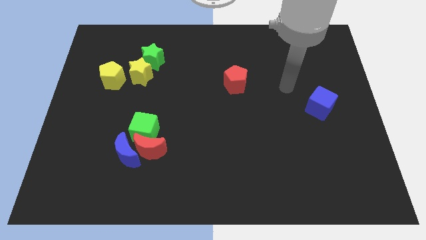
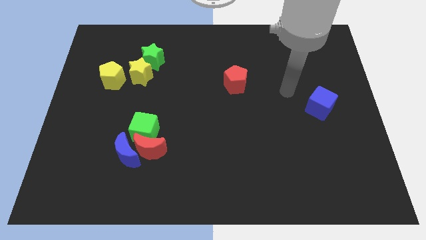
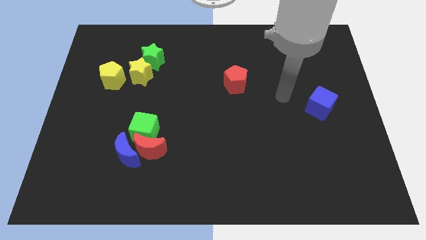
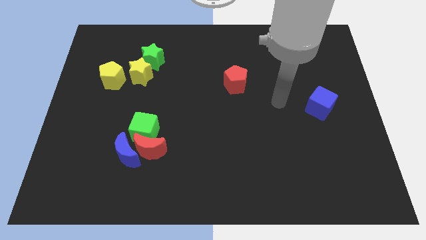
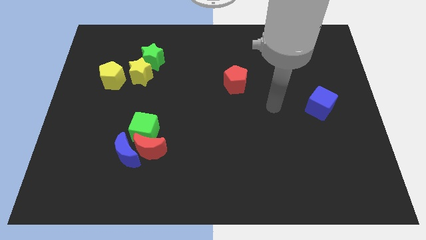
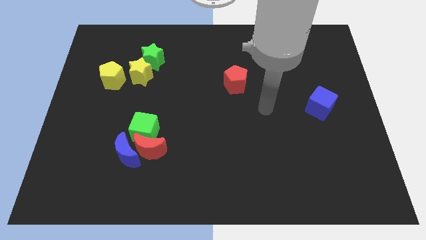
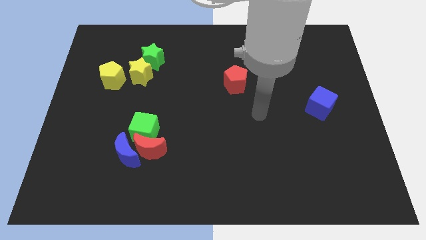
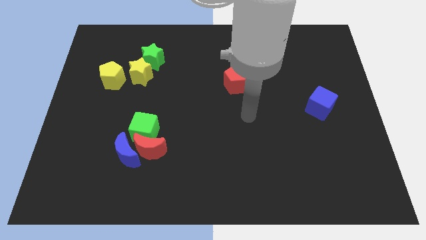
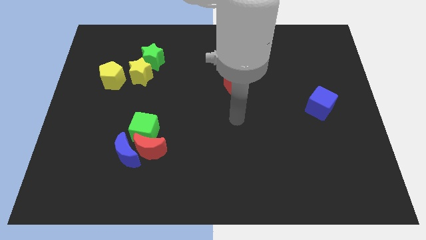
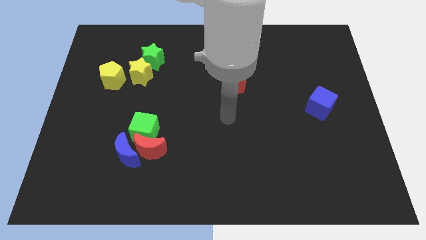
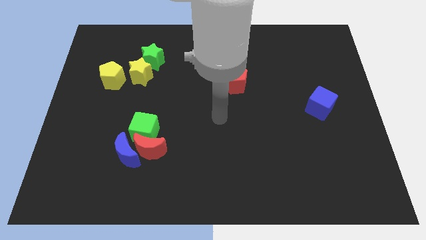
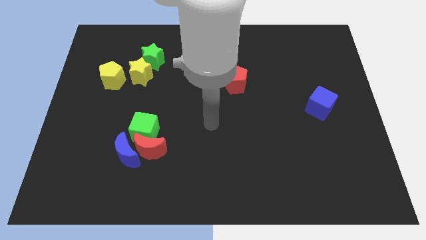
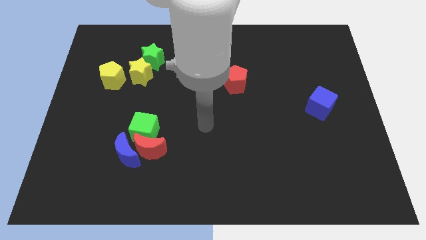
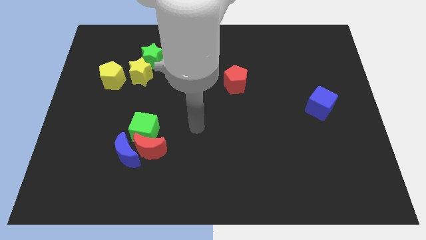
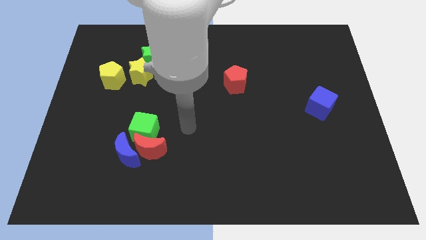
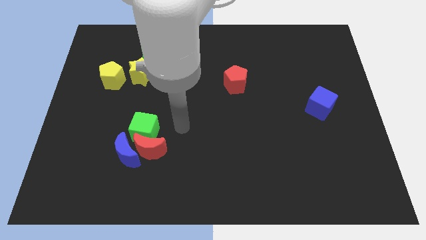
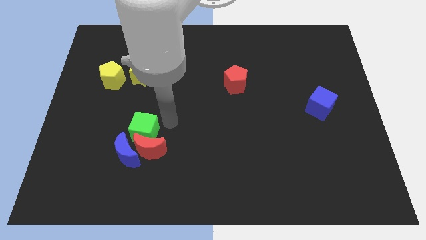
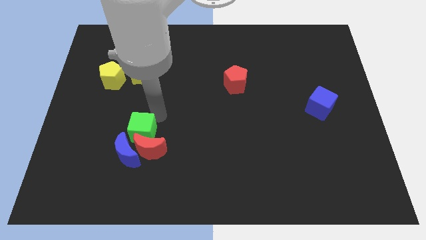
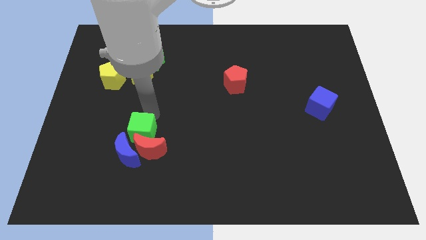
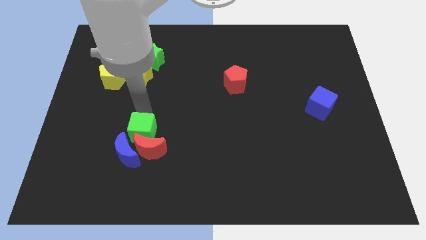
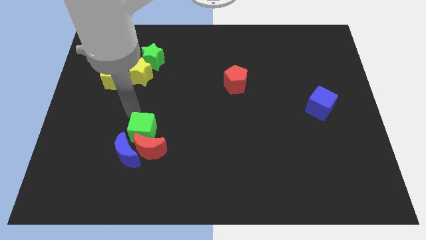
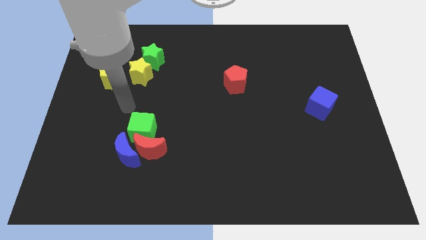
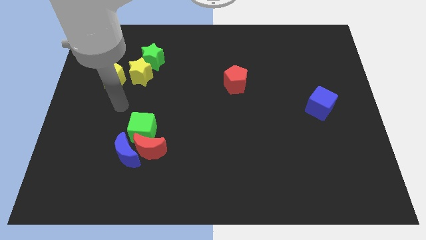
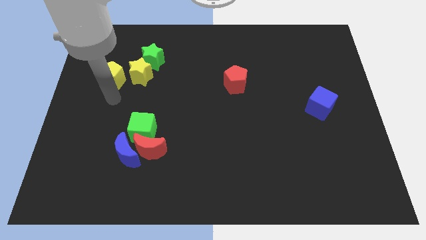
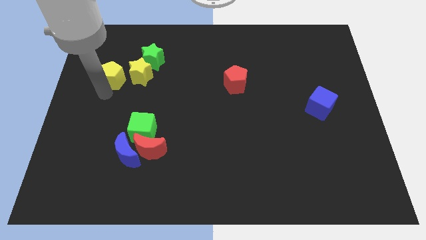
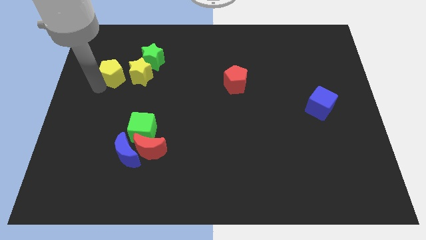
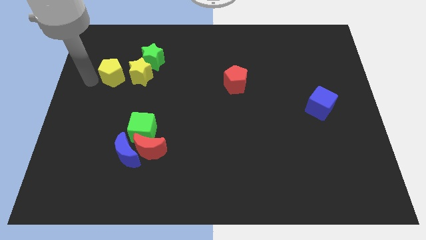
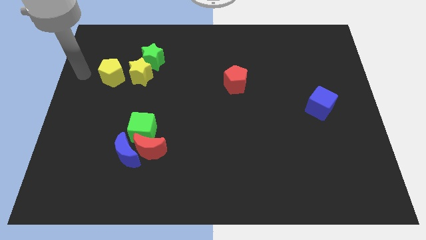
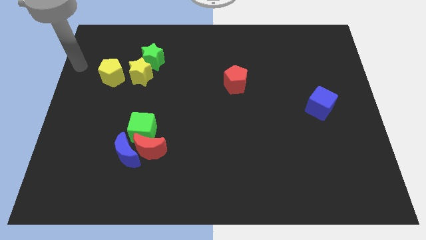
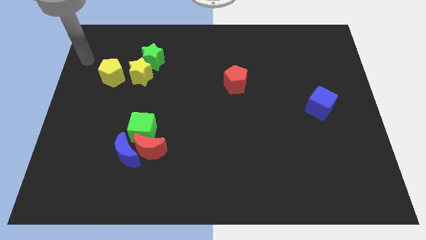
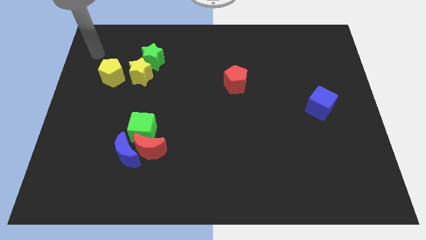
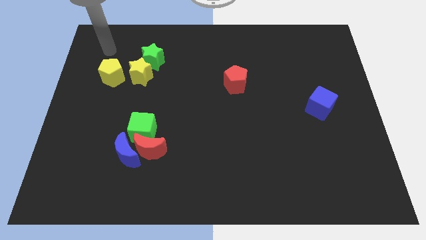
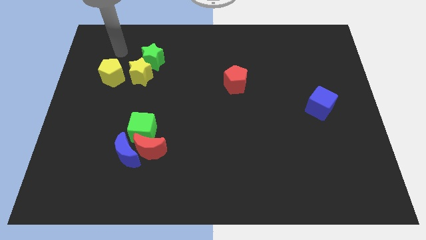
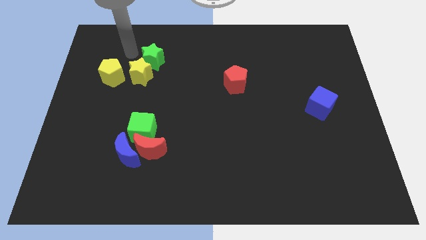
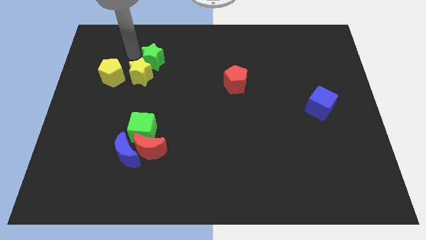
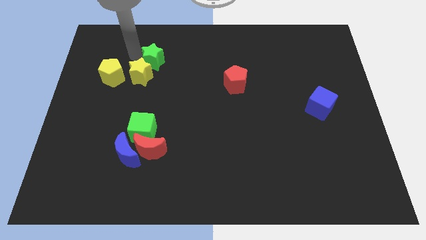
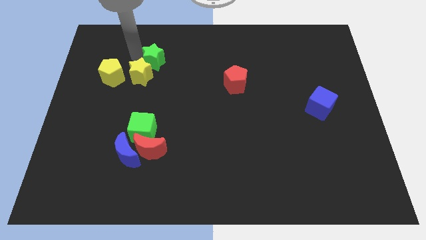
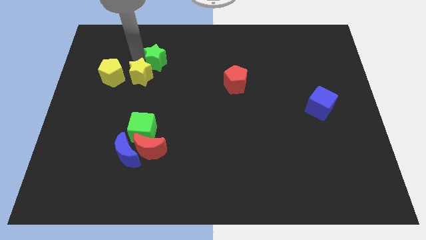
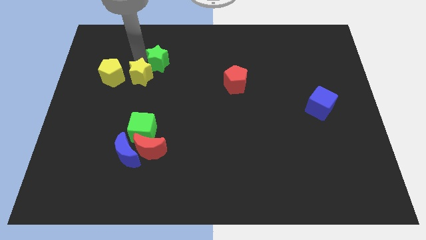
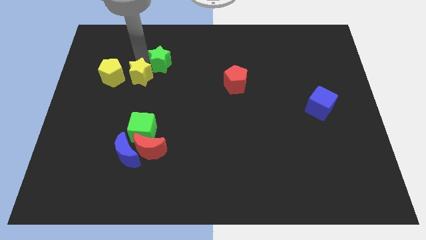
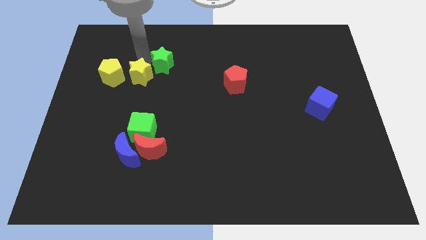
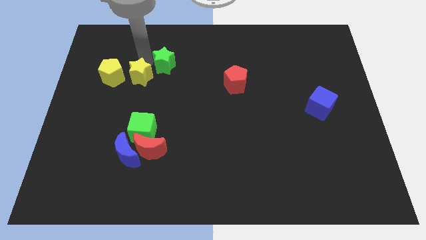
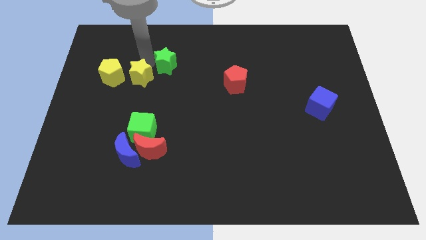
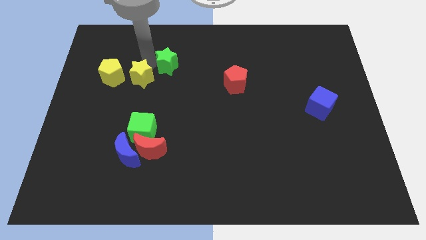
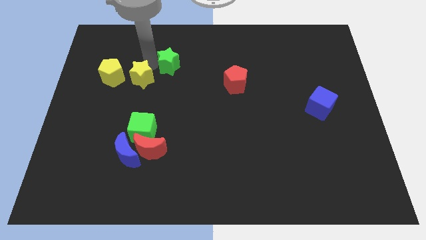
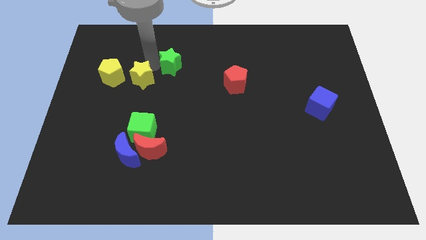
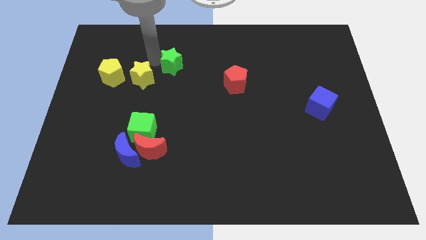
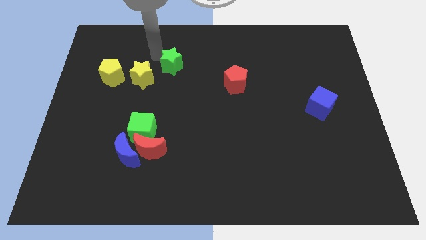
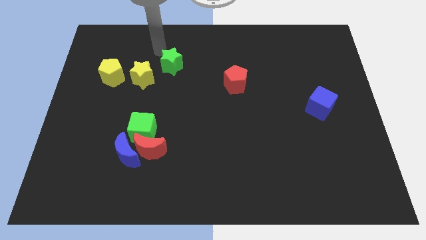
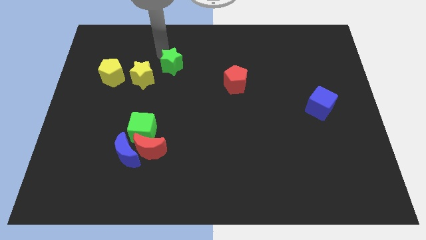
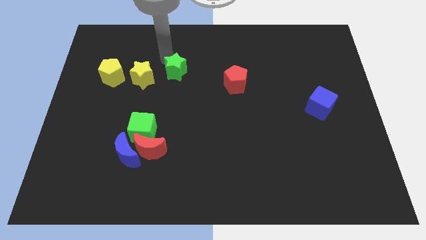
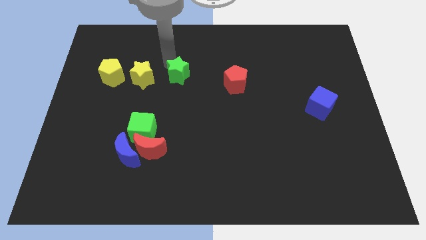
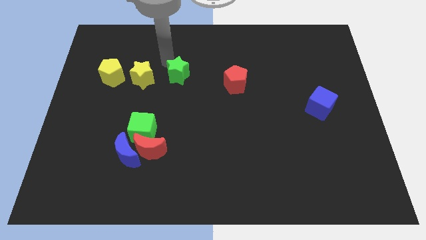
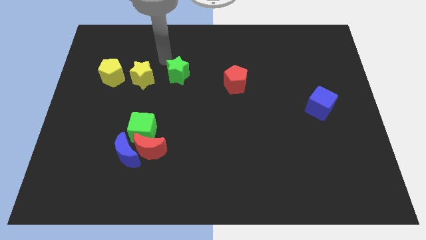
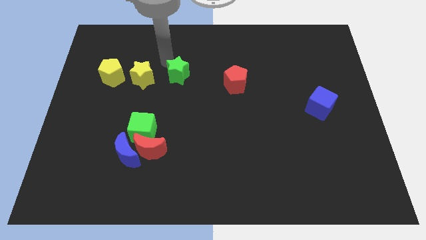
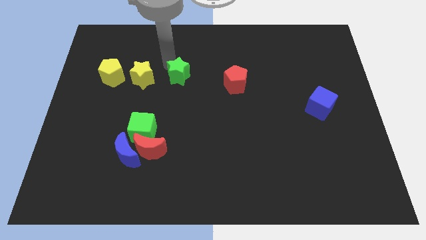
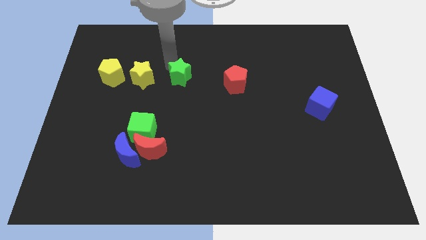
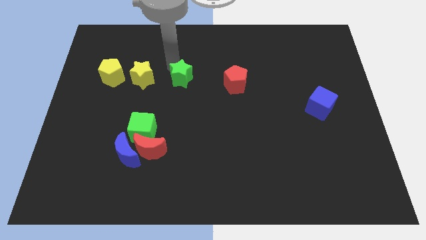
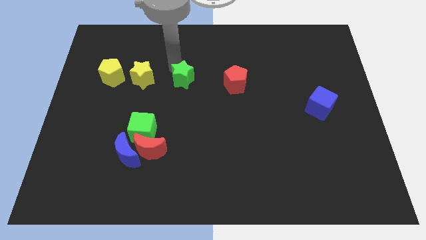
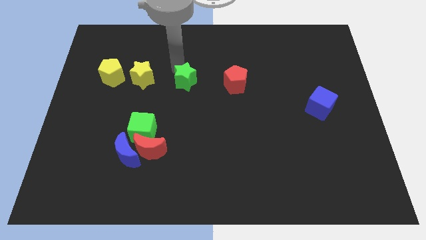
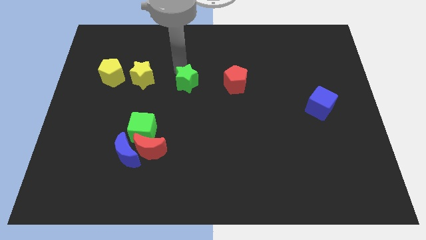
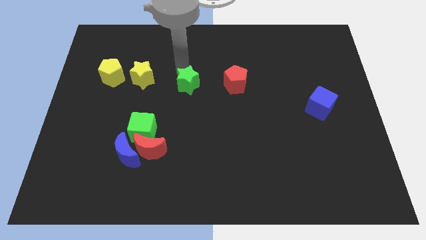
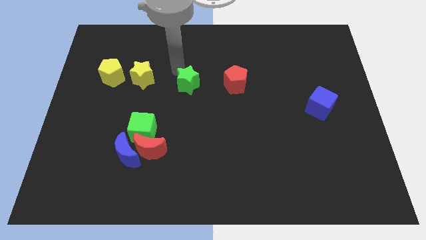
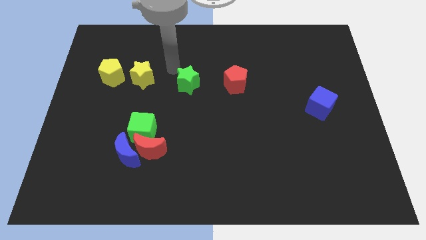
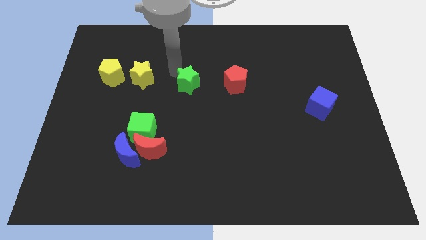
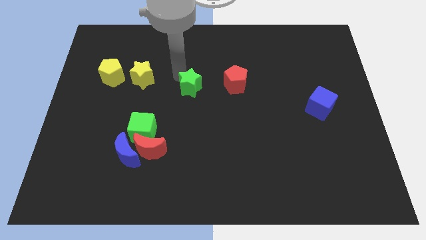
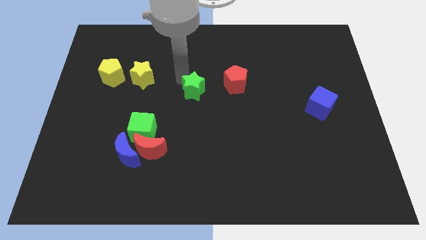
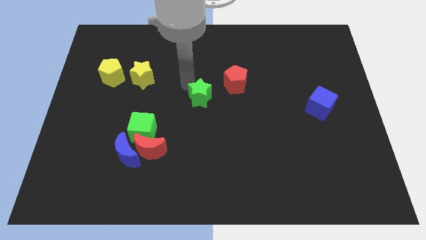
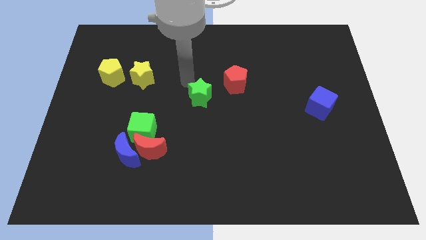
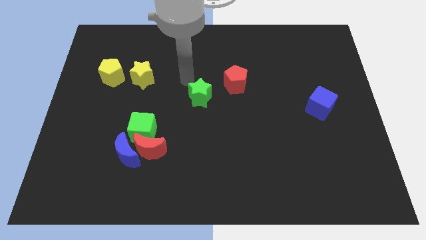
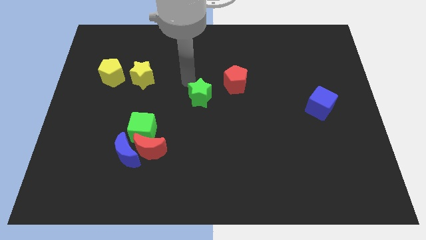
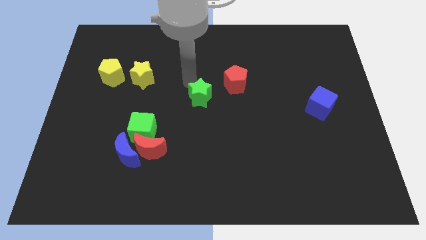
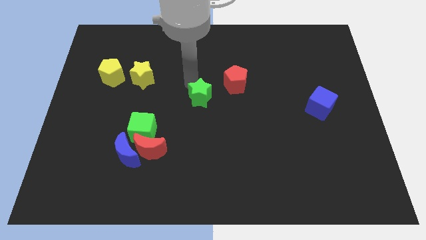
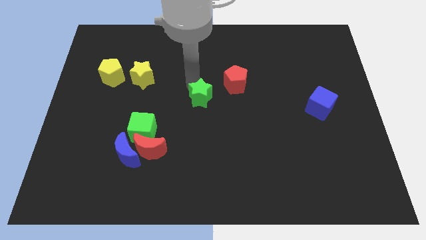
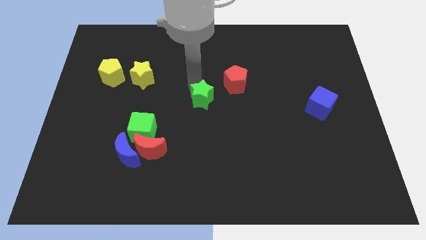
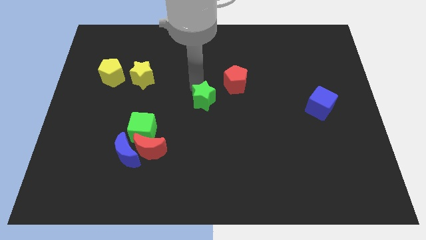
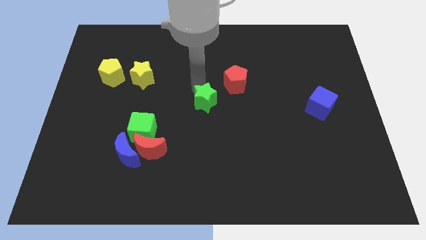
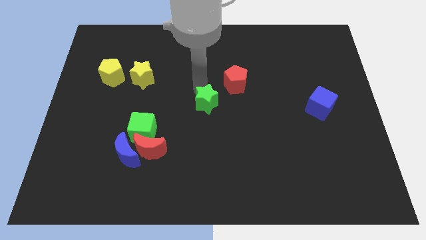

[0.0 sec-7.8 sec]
move the green star downwards and to the right

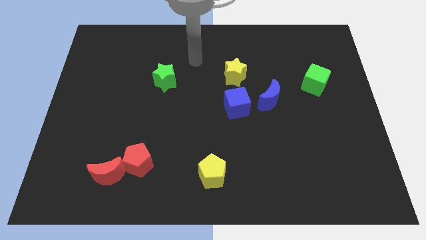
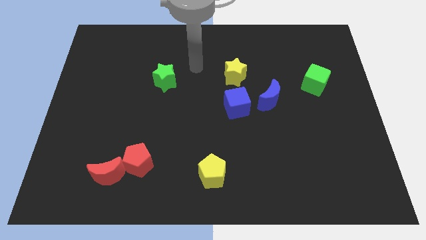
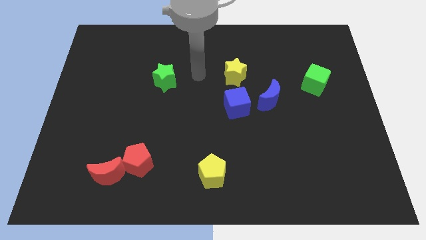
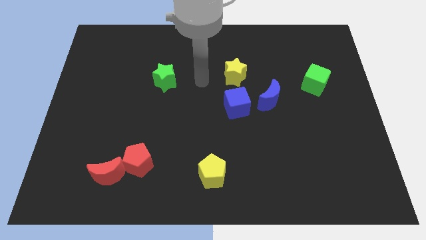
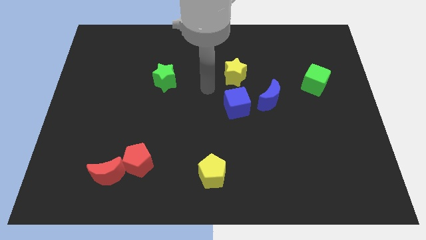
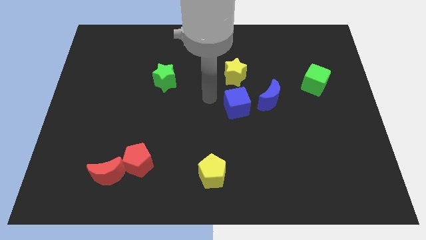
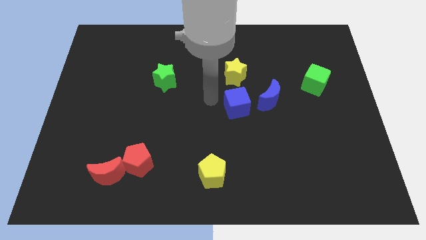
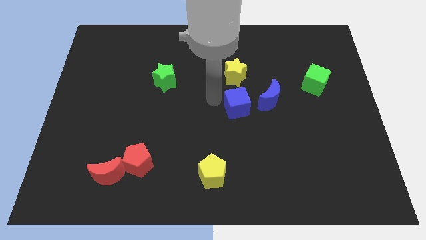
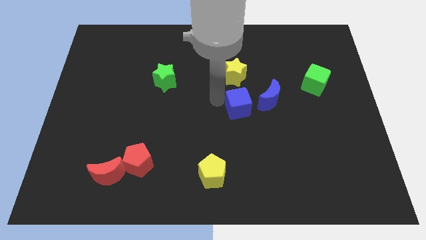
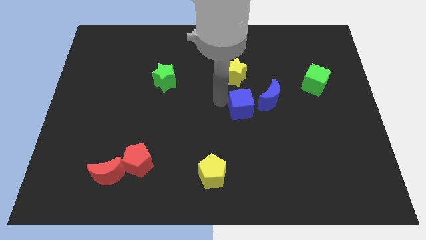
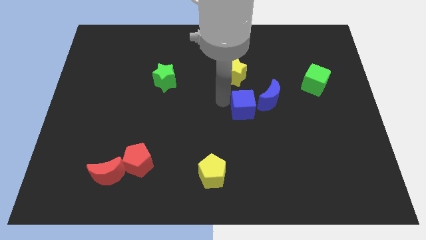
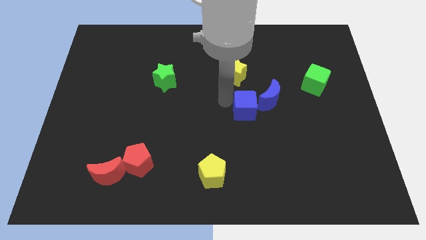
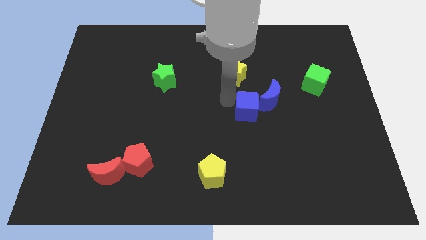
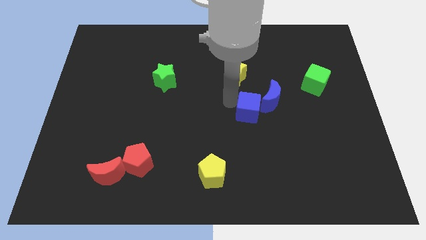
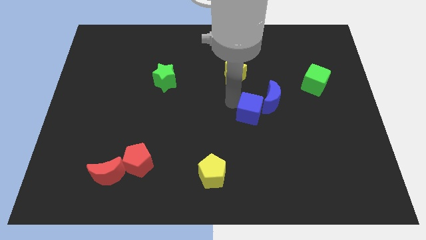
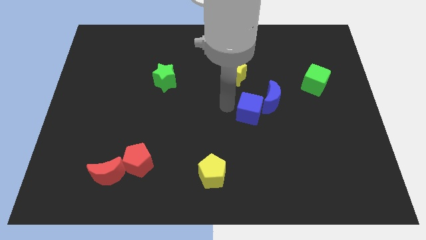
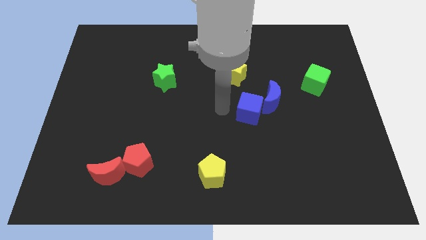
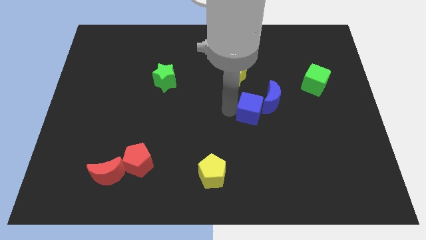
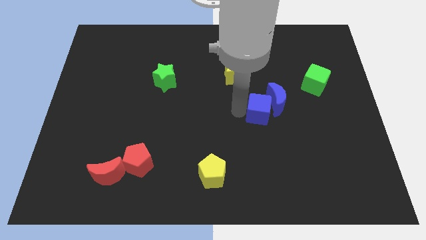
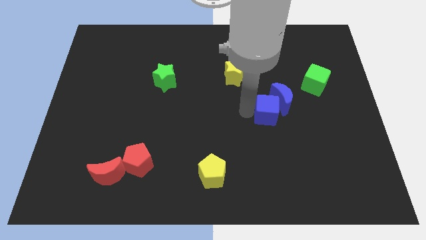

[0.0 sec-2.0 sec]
push the blue cube a little to the right
